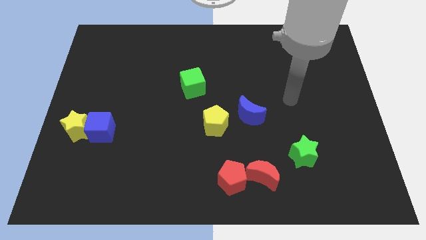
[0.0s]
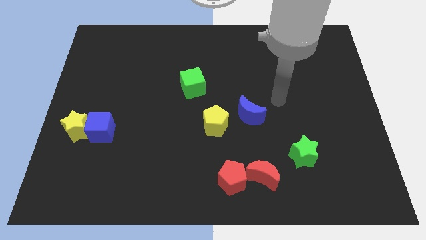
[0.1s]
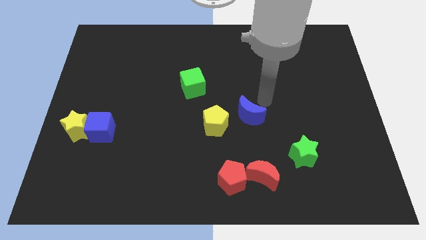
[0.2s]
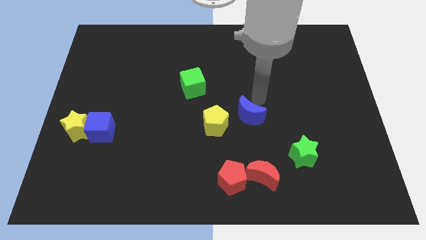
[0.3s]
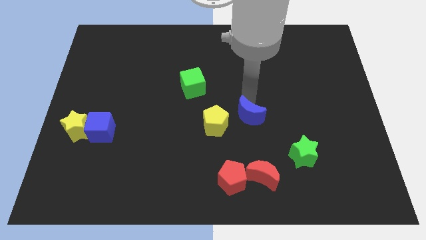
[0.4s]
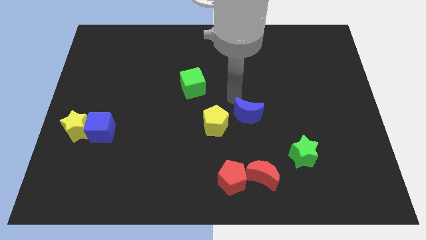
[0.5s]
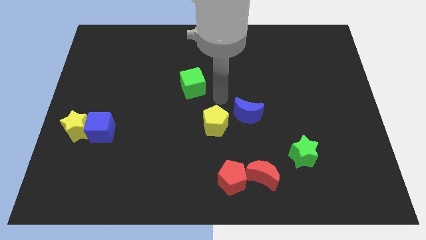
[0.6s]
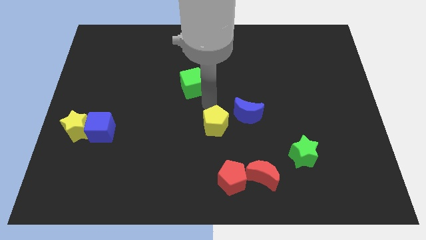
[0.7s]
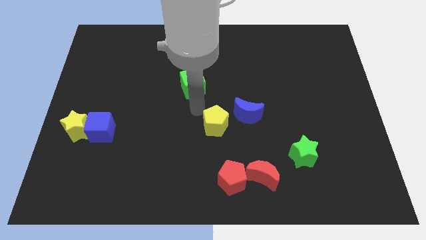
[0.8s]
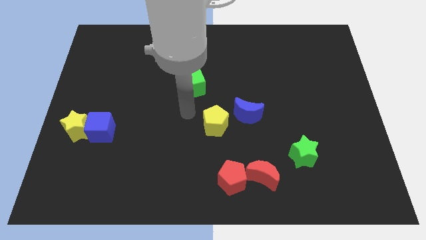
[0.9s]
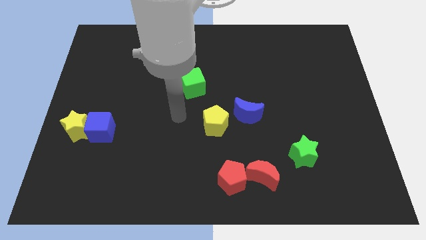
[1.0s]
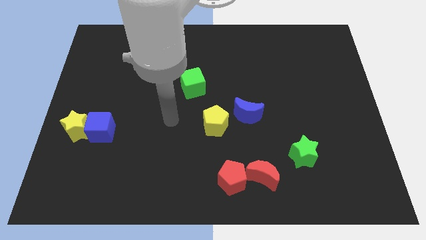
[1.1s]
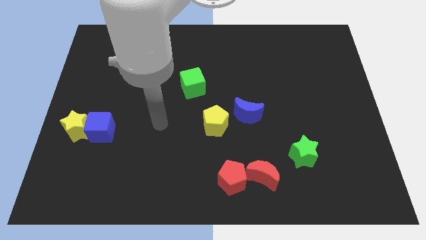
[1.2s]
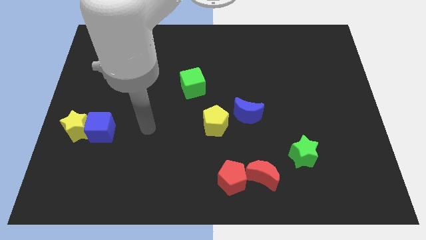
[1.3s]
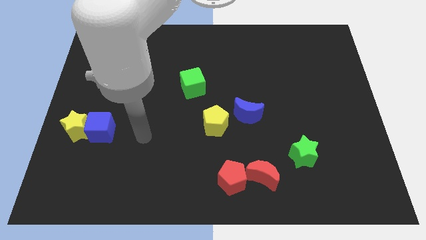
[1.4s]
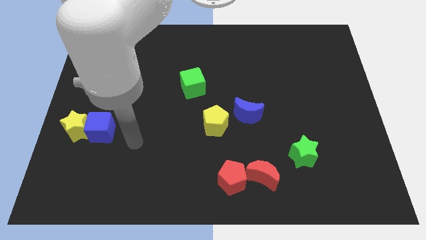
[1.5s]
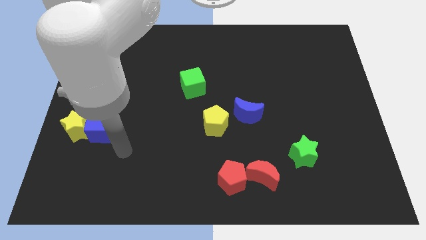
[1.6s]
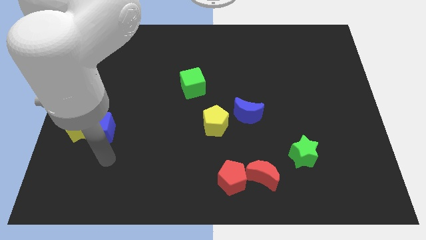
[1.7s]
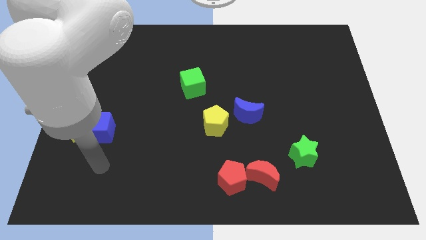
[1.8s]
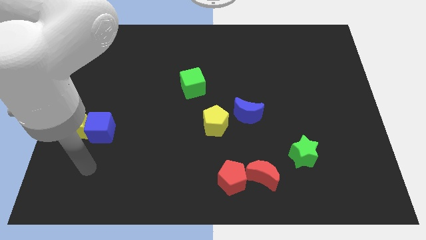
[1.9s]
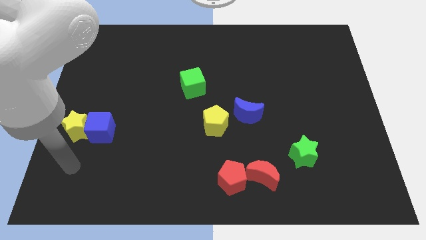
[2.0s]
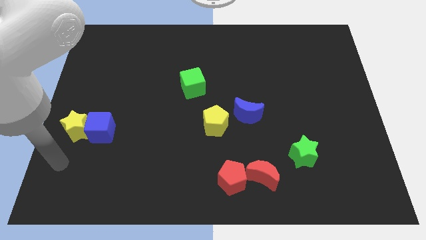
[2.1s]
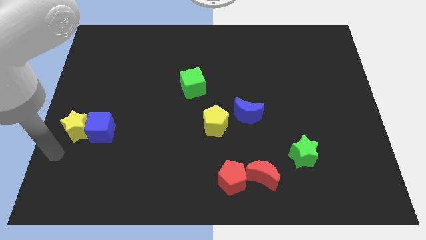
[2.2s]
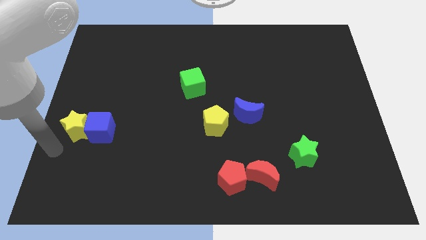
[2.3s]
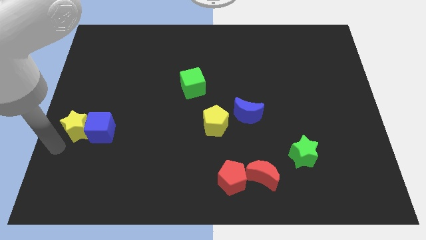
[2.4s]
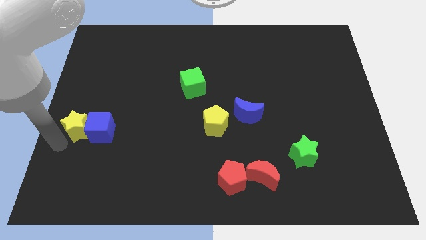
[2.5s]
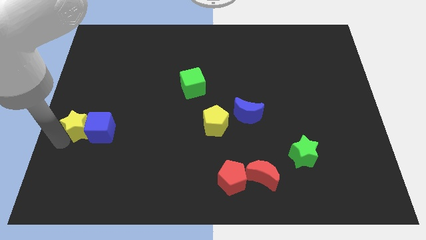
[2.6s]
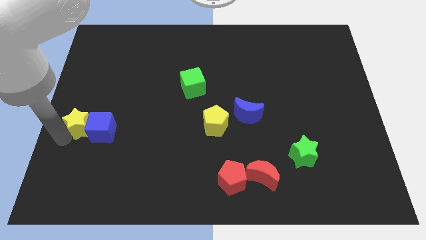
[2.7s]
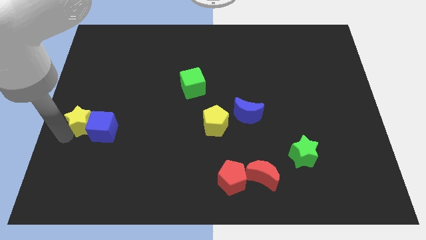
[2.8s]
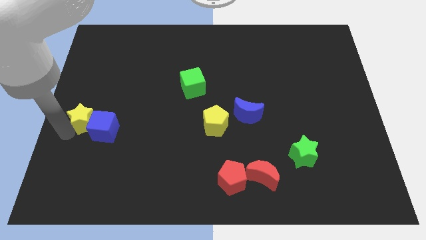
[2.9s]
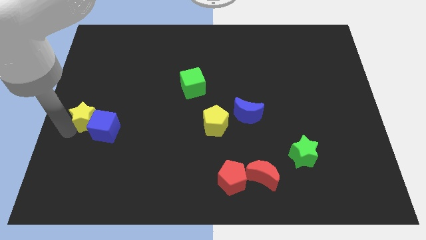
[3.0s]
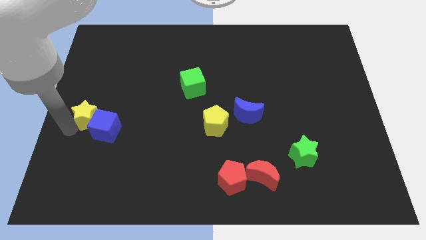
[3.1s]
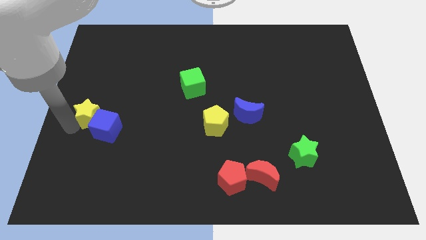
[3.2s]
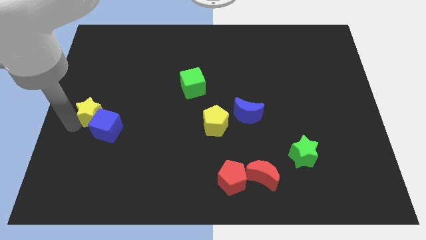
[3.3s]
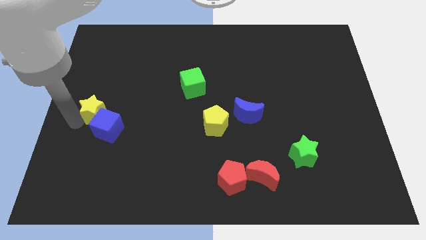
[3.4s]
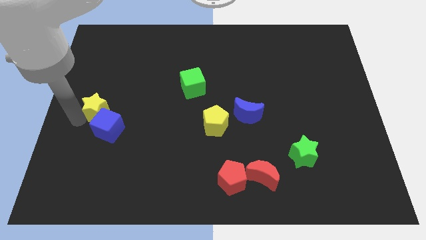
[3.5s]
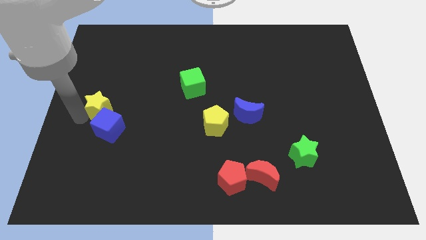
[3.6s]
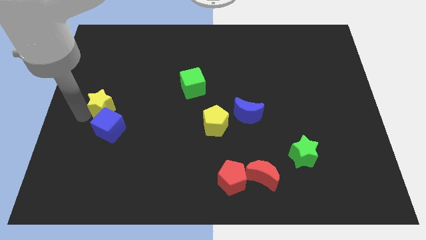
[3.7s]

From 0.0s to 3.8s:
slightly move the yellow star upwards and then to the right

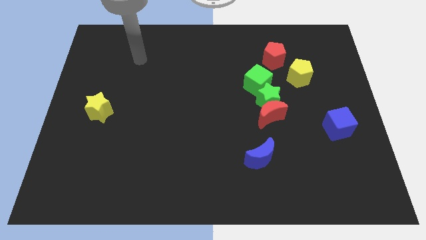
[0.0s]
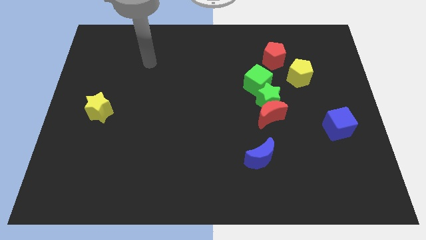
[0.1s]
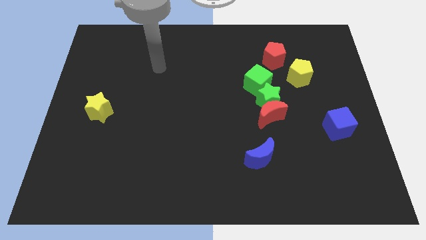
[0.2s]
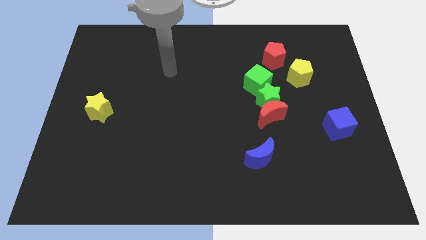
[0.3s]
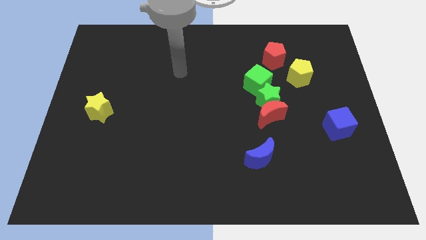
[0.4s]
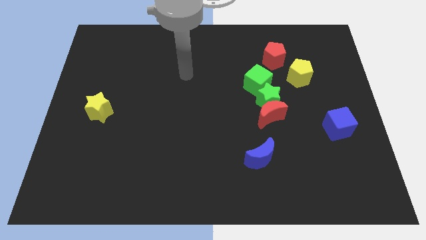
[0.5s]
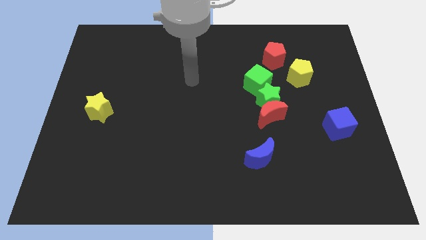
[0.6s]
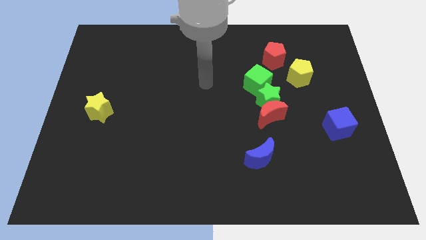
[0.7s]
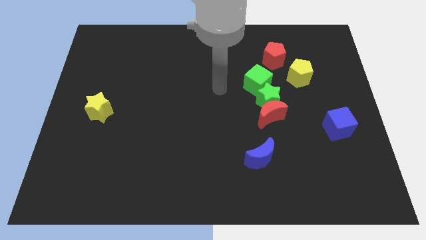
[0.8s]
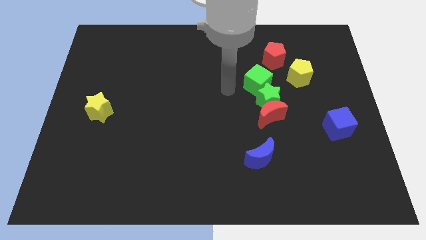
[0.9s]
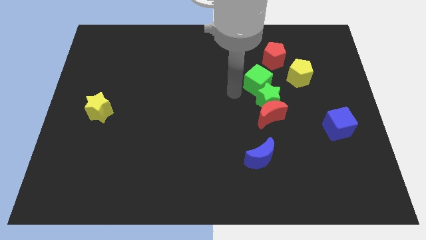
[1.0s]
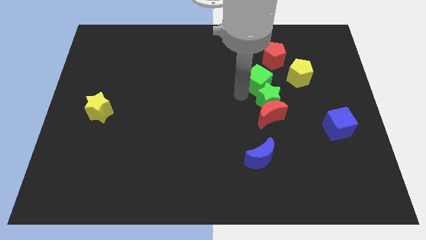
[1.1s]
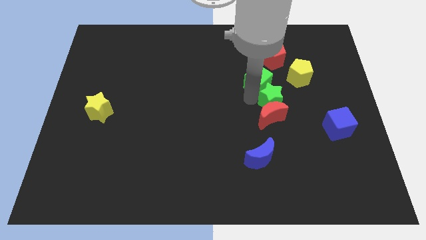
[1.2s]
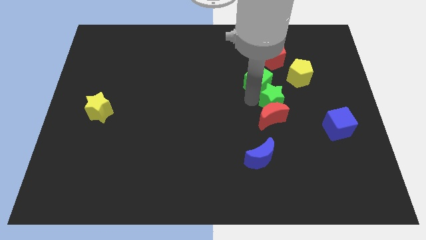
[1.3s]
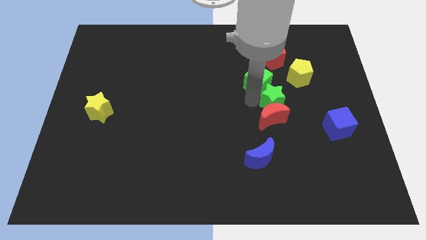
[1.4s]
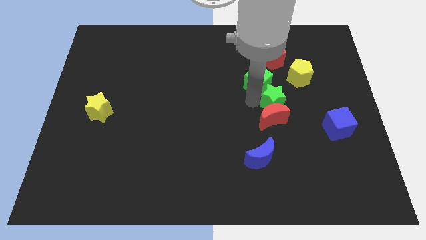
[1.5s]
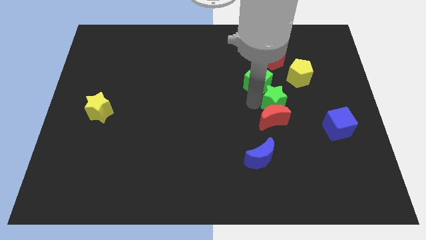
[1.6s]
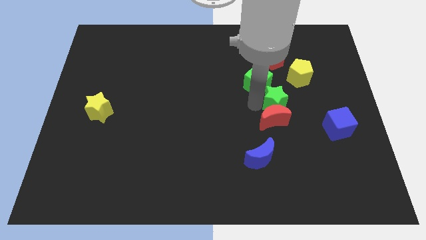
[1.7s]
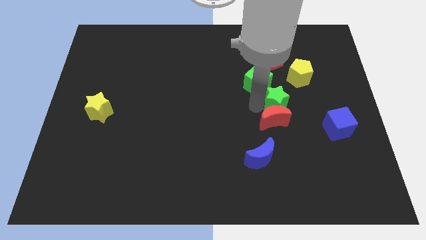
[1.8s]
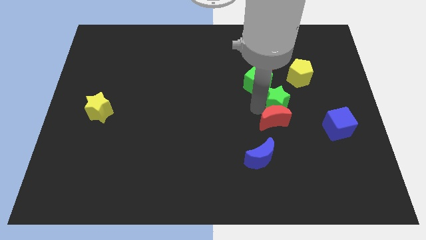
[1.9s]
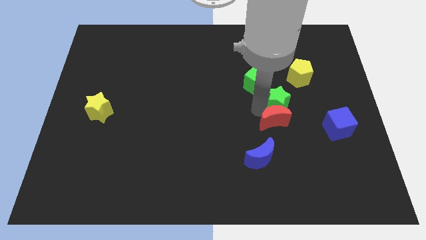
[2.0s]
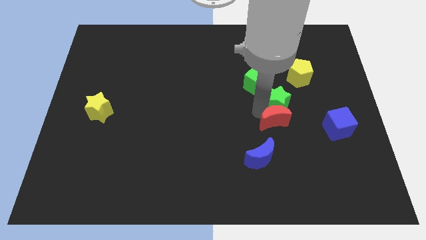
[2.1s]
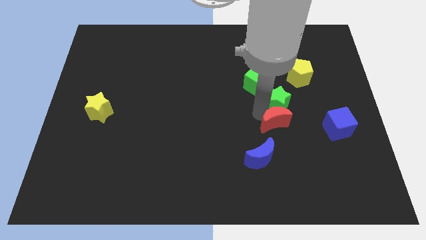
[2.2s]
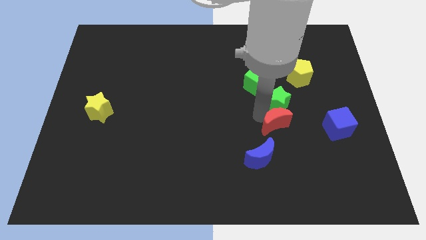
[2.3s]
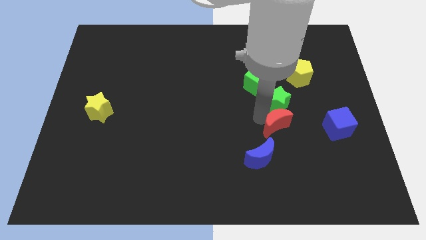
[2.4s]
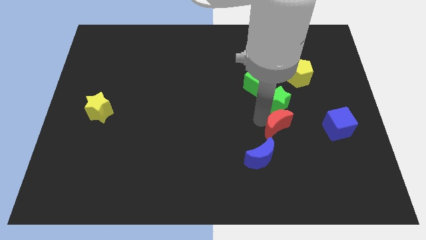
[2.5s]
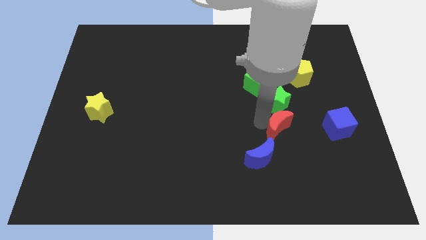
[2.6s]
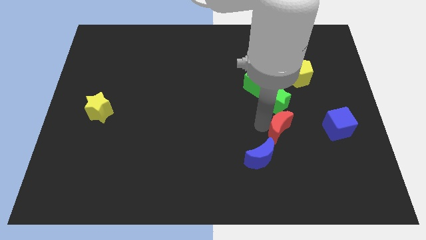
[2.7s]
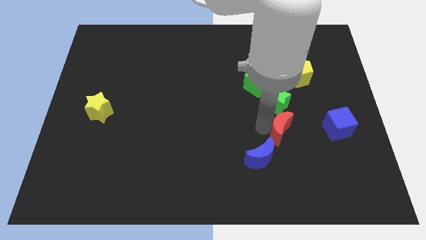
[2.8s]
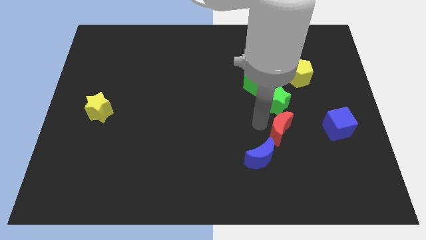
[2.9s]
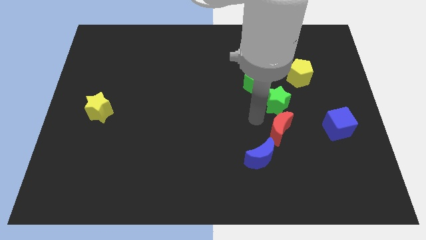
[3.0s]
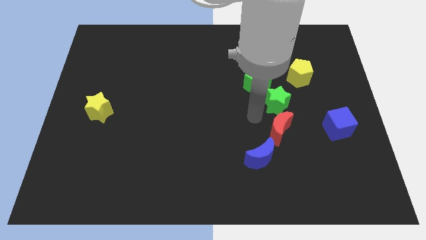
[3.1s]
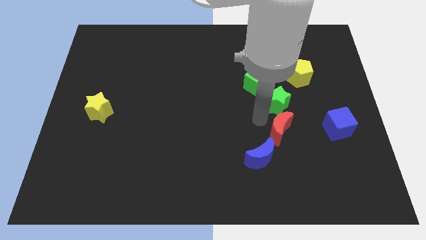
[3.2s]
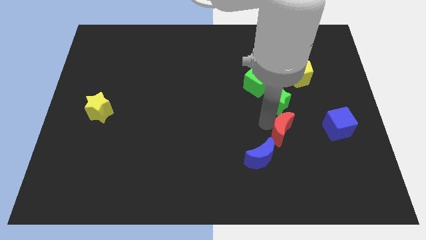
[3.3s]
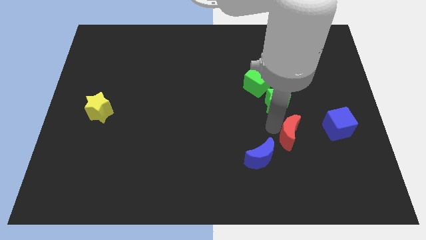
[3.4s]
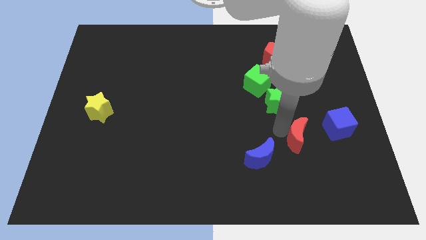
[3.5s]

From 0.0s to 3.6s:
slightly push the red moon down and right diagonally

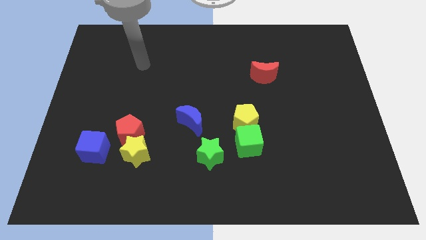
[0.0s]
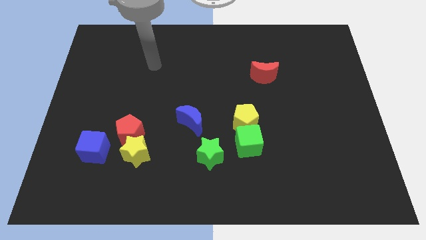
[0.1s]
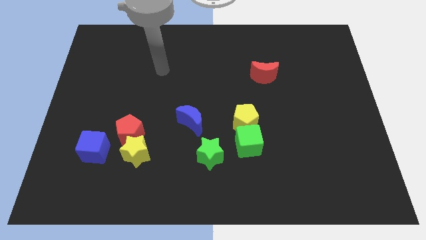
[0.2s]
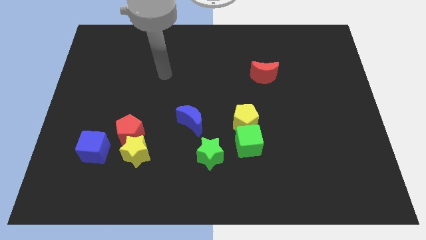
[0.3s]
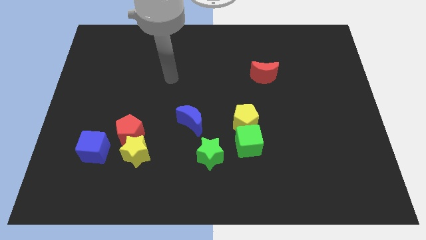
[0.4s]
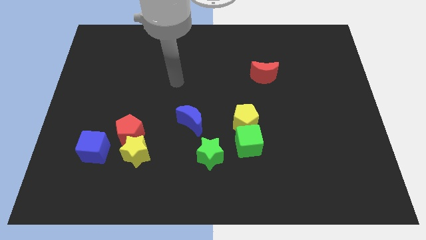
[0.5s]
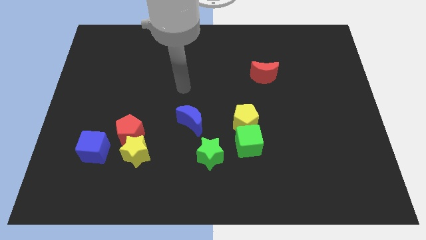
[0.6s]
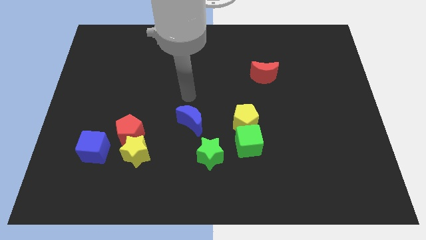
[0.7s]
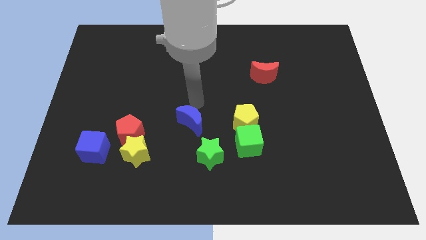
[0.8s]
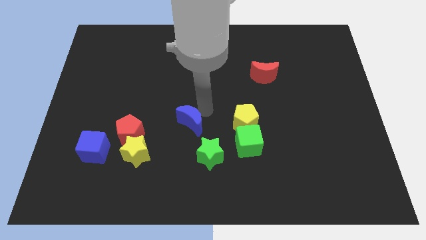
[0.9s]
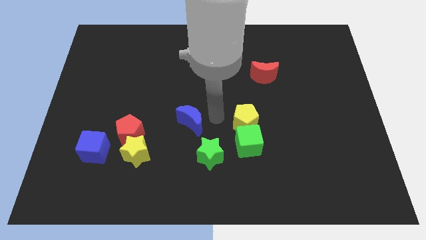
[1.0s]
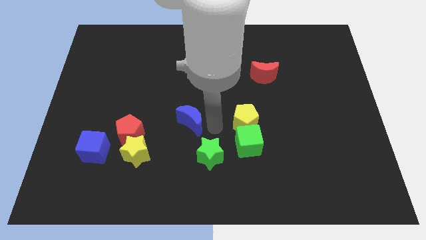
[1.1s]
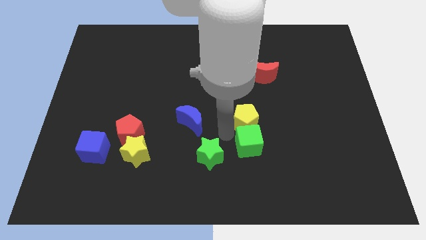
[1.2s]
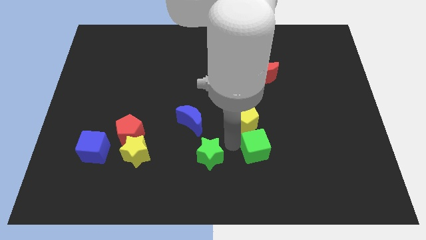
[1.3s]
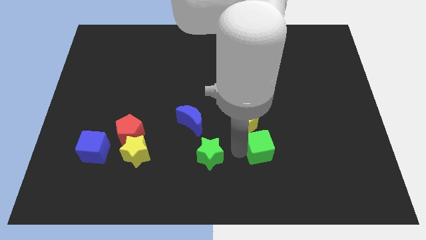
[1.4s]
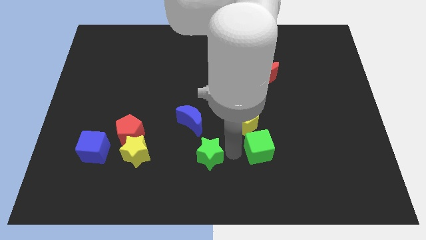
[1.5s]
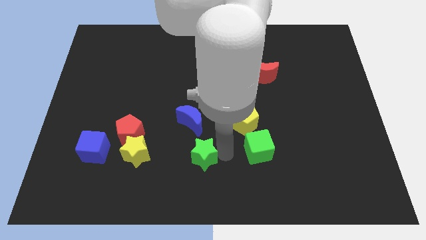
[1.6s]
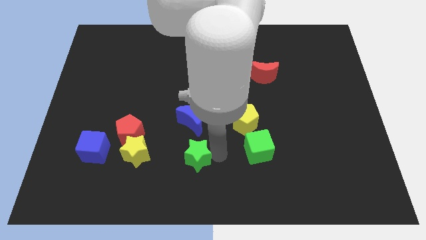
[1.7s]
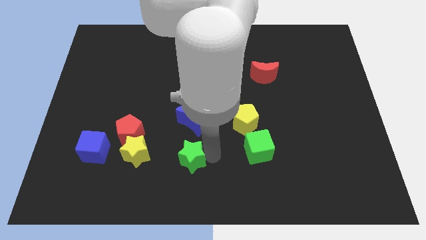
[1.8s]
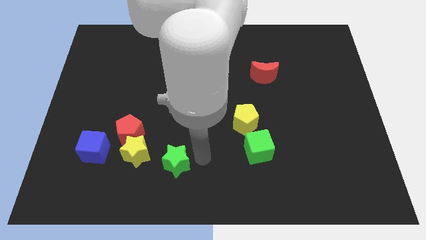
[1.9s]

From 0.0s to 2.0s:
move the green star to the left slightly
